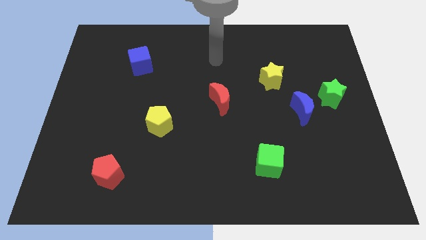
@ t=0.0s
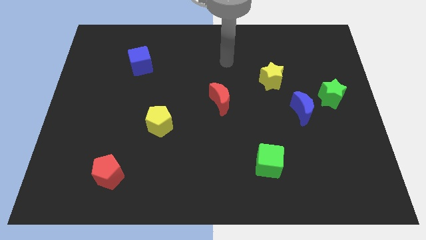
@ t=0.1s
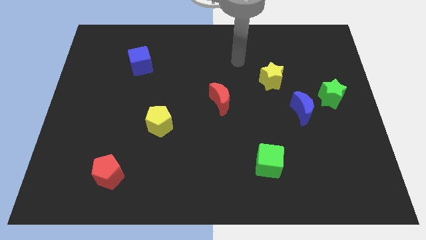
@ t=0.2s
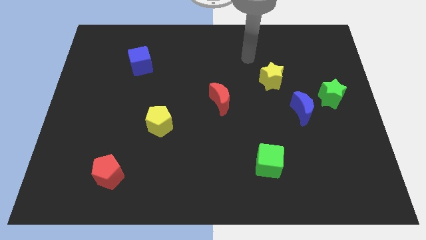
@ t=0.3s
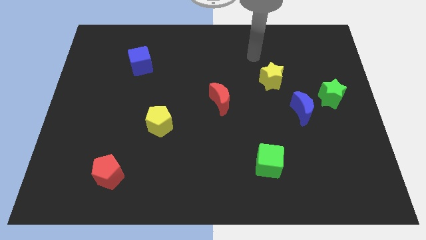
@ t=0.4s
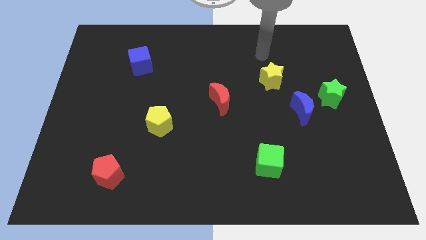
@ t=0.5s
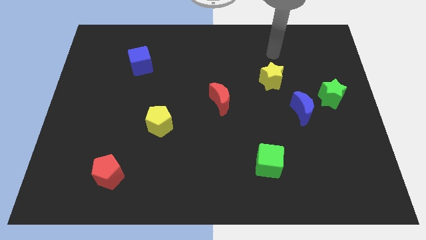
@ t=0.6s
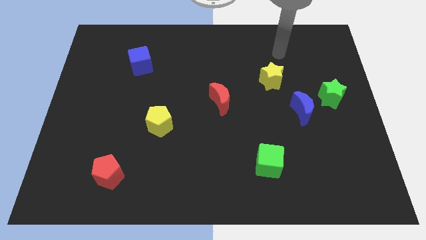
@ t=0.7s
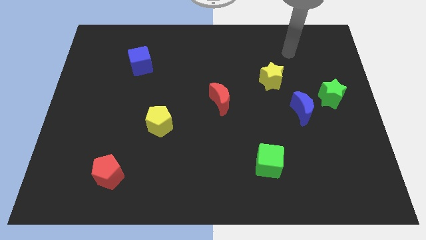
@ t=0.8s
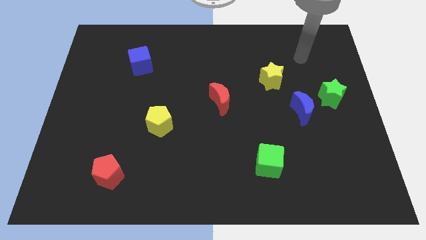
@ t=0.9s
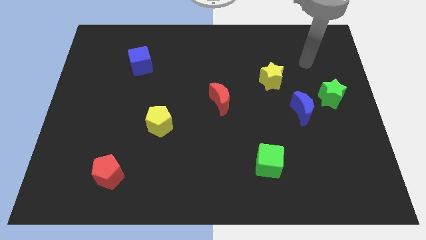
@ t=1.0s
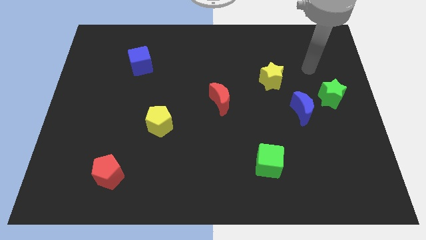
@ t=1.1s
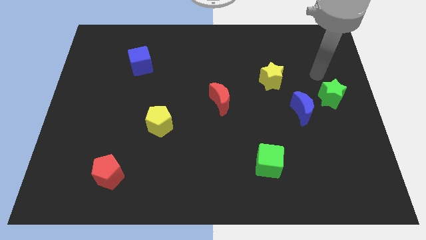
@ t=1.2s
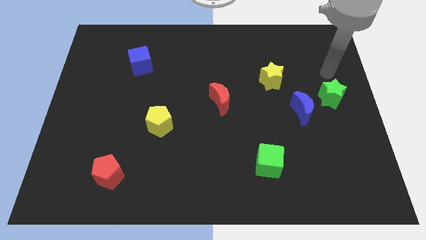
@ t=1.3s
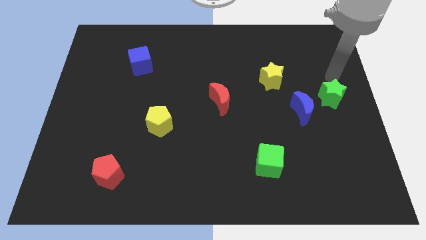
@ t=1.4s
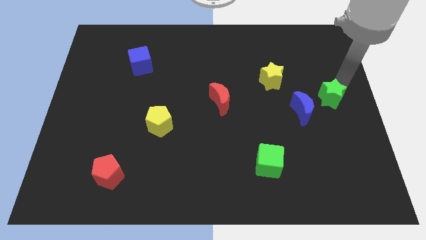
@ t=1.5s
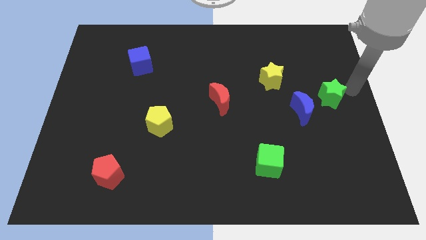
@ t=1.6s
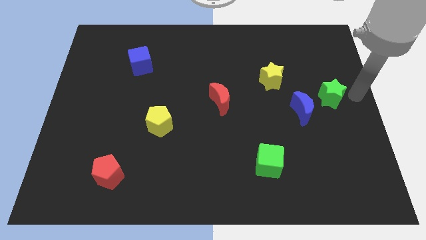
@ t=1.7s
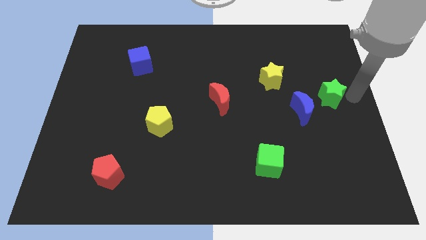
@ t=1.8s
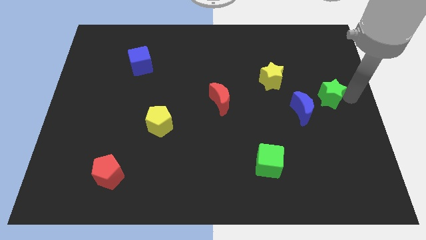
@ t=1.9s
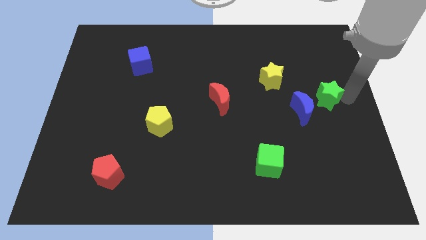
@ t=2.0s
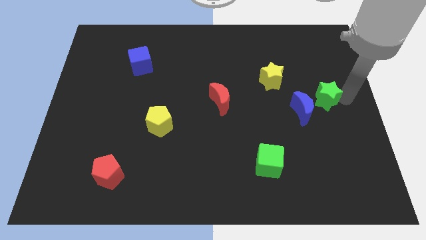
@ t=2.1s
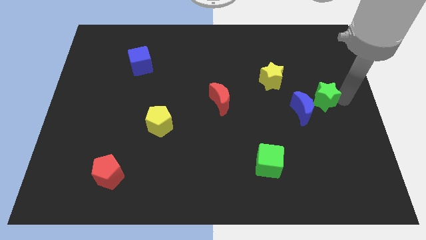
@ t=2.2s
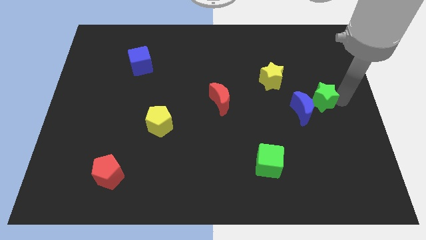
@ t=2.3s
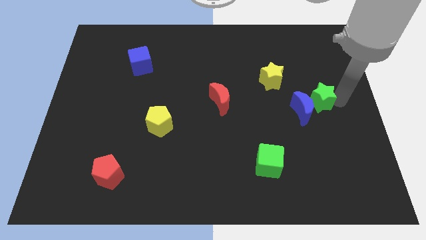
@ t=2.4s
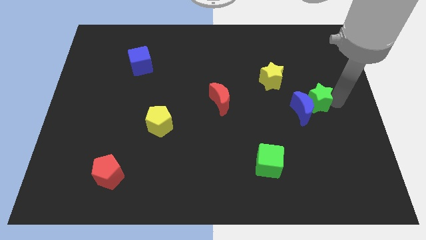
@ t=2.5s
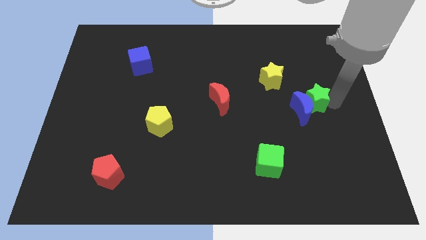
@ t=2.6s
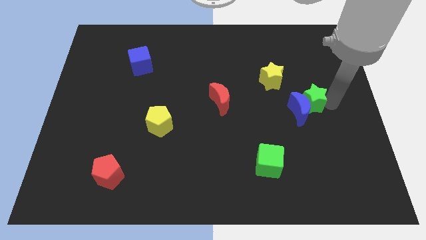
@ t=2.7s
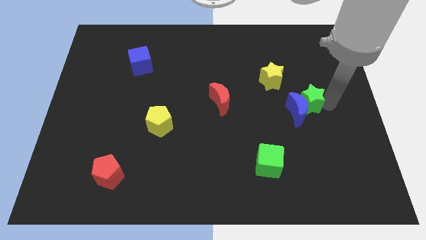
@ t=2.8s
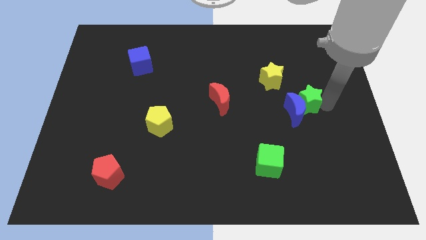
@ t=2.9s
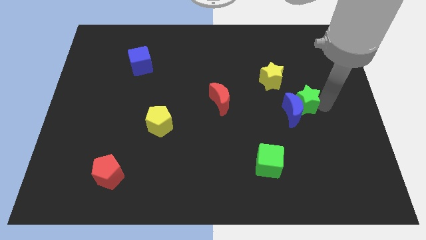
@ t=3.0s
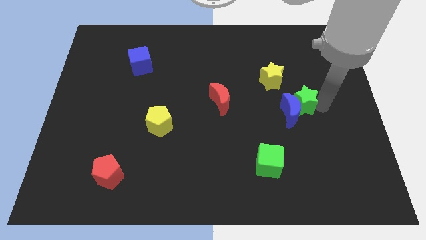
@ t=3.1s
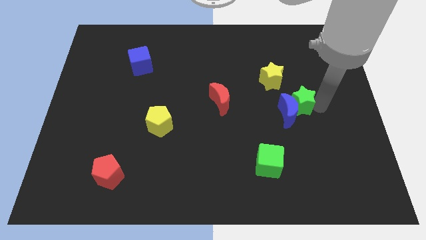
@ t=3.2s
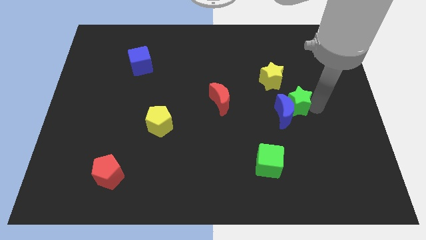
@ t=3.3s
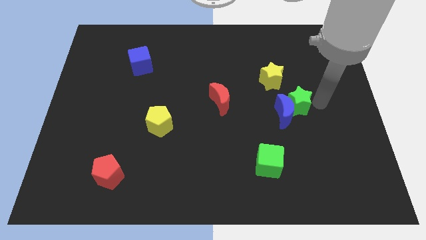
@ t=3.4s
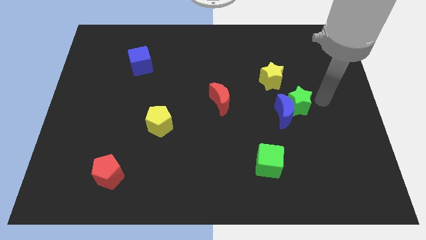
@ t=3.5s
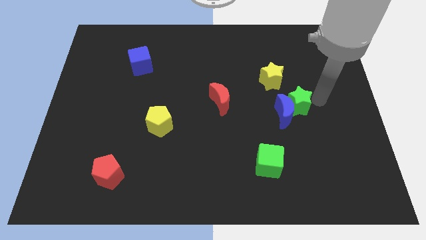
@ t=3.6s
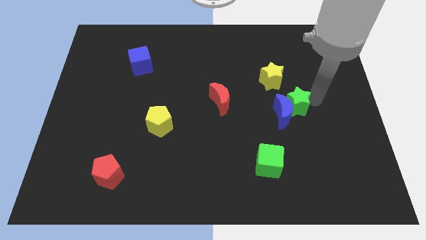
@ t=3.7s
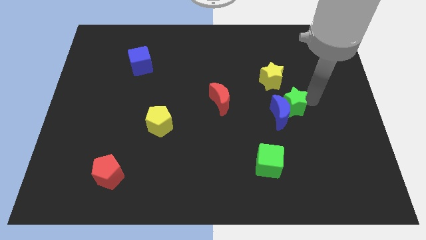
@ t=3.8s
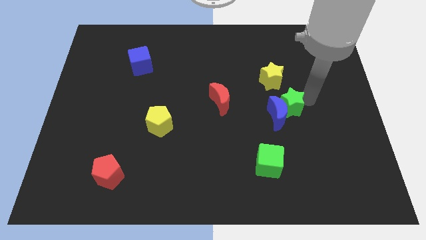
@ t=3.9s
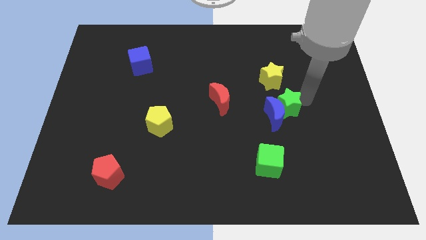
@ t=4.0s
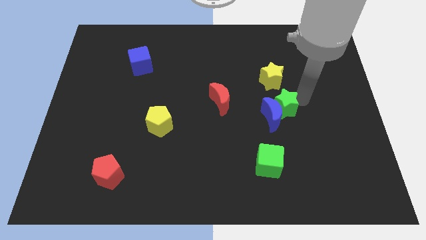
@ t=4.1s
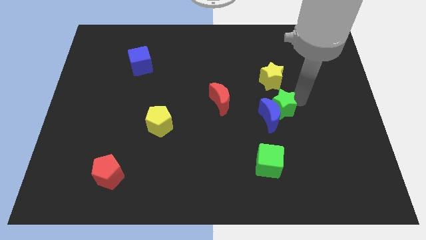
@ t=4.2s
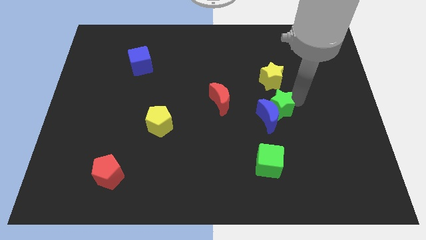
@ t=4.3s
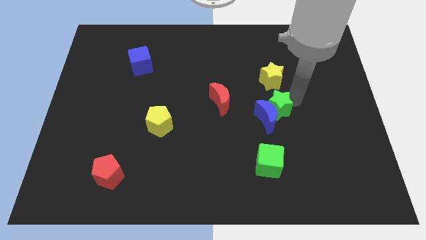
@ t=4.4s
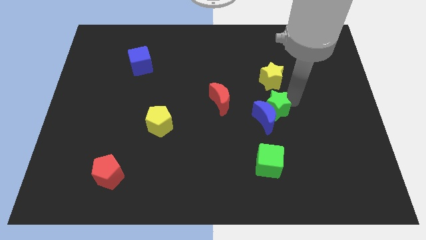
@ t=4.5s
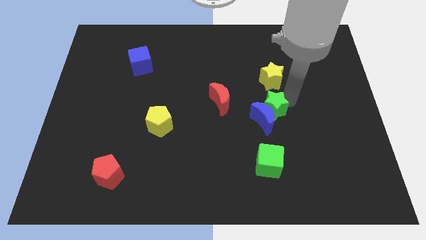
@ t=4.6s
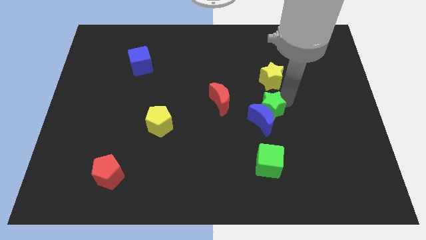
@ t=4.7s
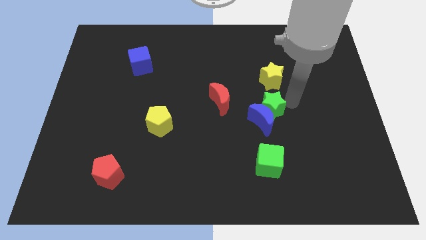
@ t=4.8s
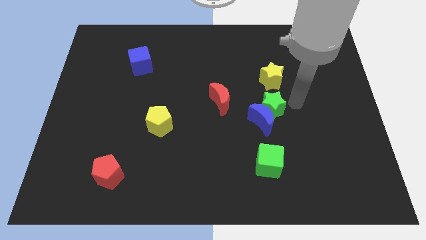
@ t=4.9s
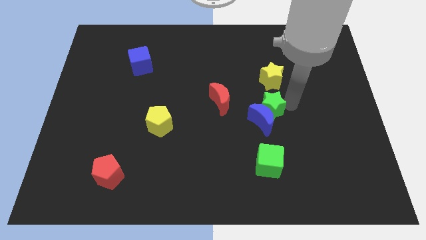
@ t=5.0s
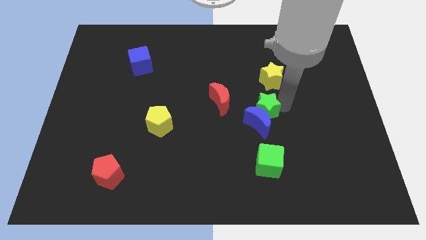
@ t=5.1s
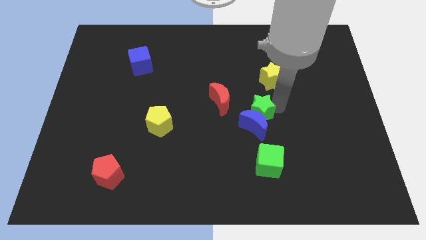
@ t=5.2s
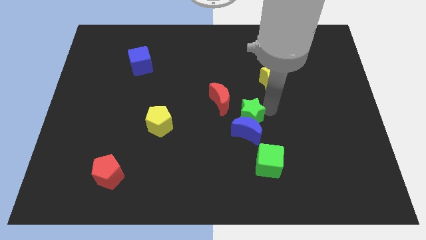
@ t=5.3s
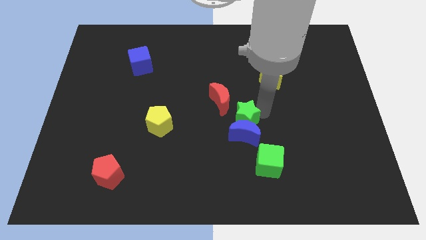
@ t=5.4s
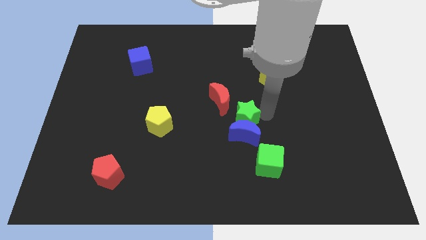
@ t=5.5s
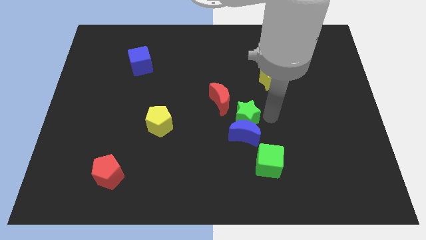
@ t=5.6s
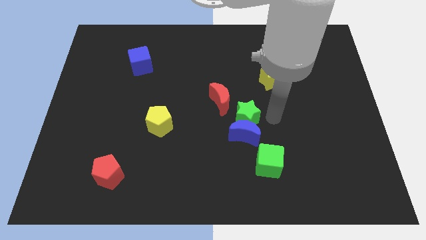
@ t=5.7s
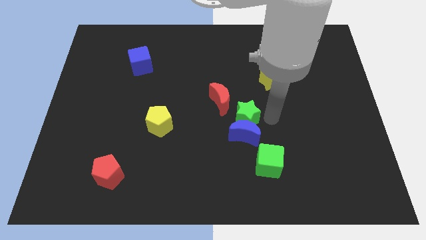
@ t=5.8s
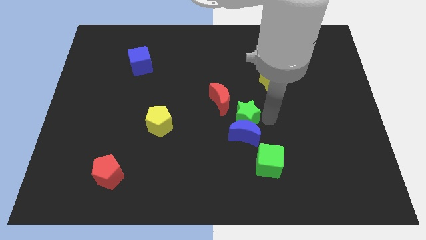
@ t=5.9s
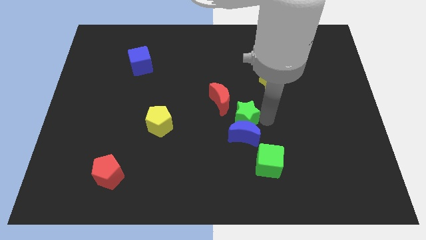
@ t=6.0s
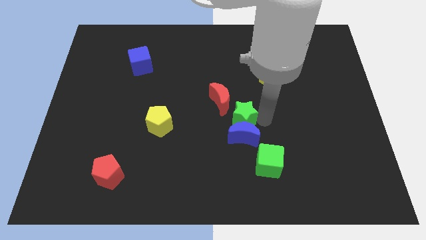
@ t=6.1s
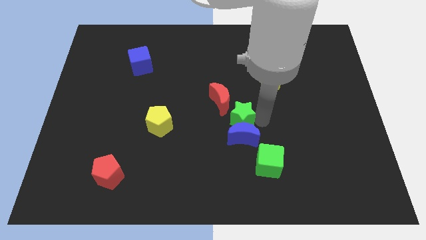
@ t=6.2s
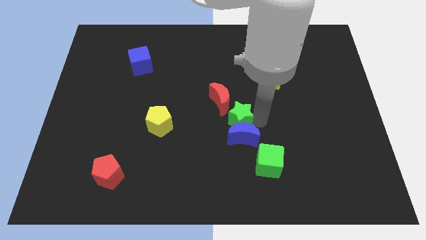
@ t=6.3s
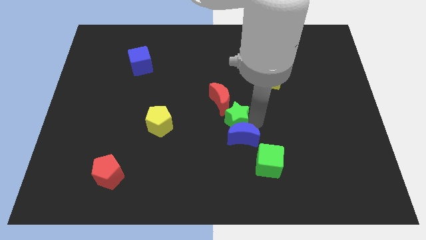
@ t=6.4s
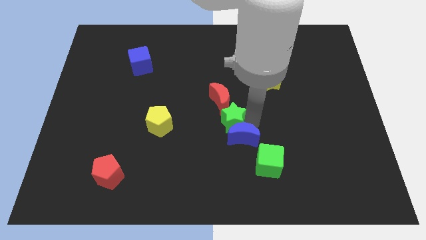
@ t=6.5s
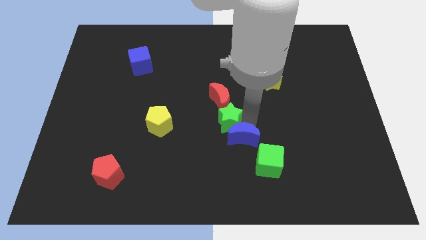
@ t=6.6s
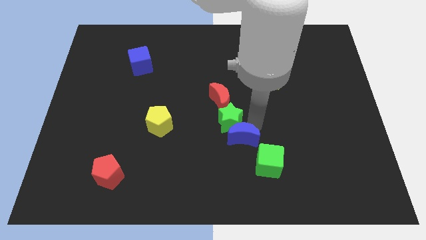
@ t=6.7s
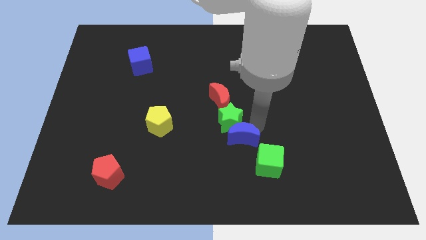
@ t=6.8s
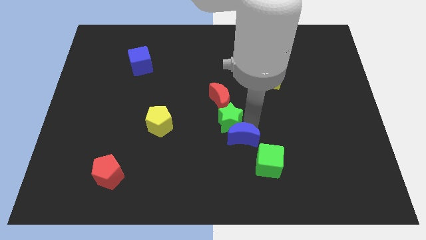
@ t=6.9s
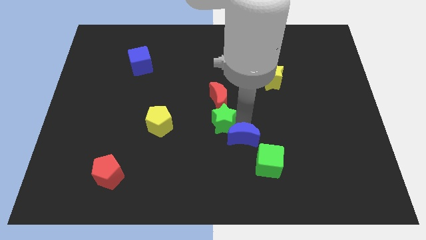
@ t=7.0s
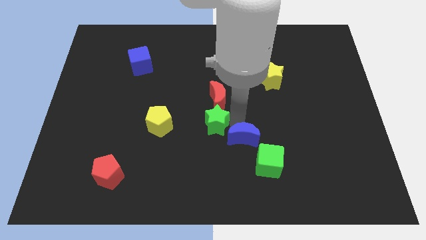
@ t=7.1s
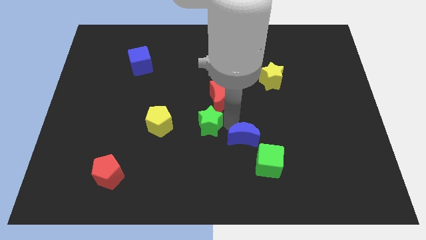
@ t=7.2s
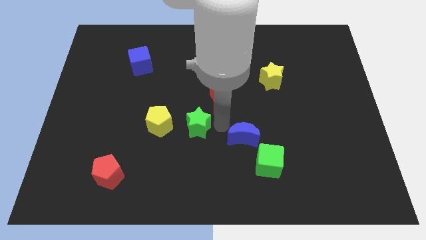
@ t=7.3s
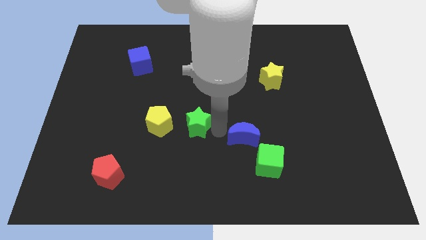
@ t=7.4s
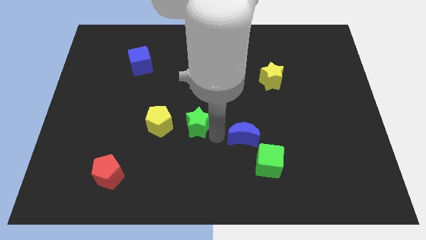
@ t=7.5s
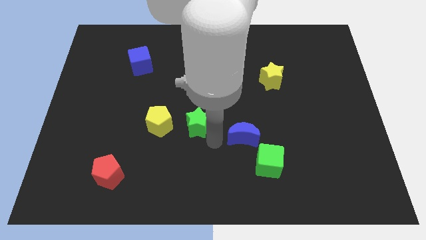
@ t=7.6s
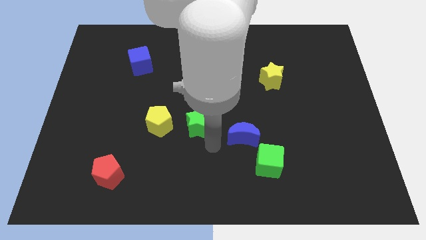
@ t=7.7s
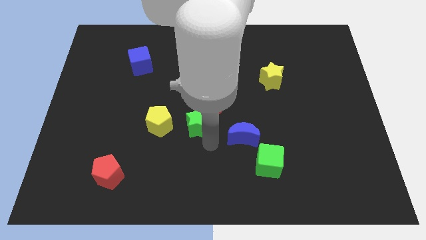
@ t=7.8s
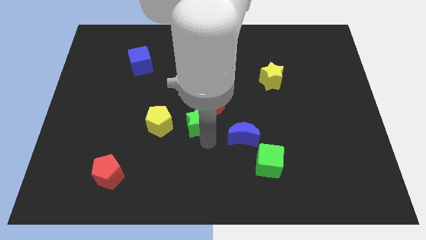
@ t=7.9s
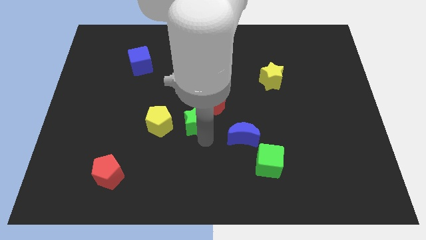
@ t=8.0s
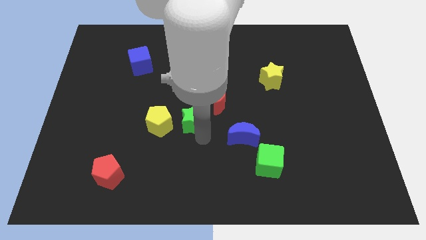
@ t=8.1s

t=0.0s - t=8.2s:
move the green star to the top right of the yellow pentagon
